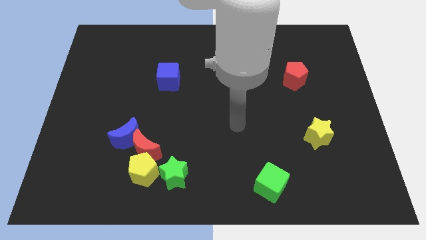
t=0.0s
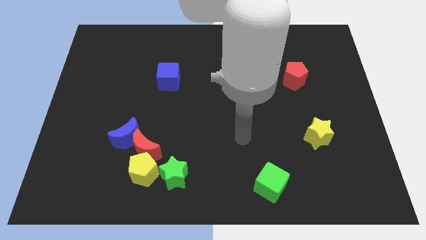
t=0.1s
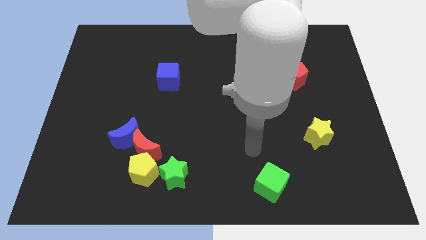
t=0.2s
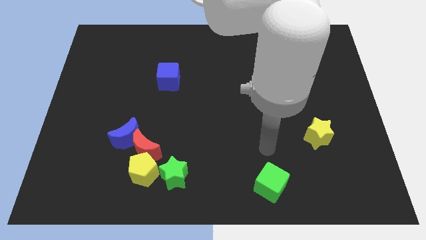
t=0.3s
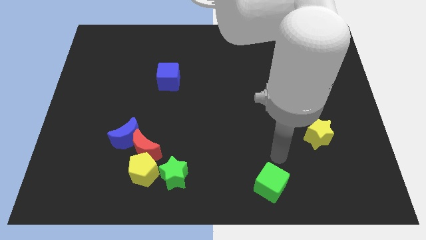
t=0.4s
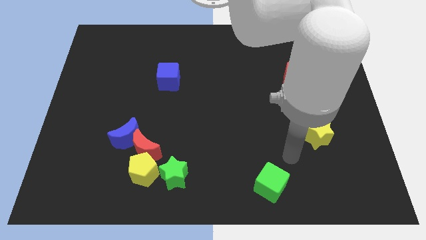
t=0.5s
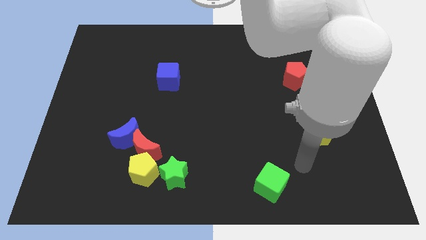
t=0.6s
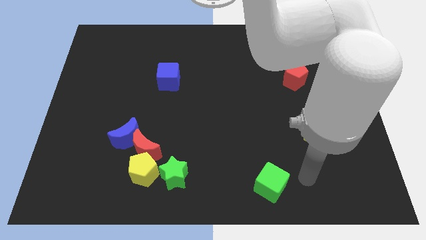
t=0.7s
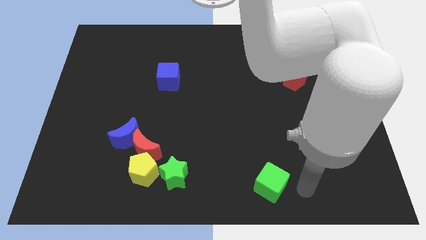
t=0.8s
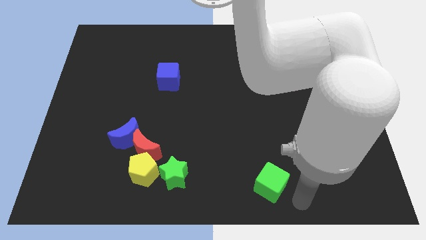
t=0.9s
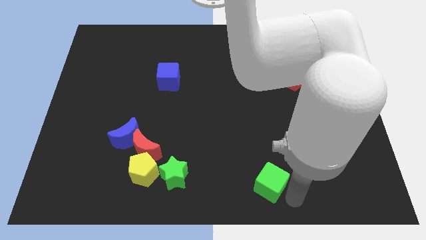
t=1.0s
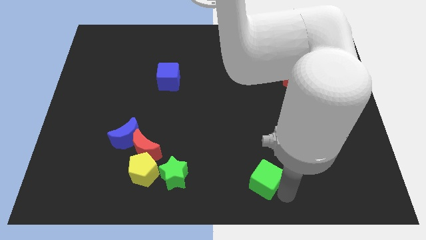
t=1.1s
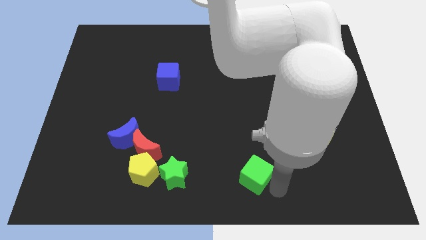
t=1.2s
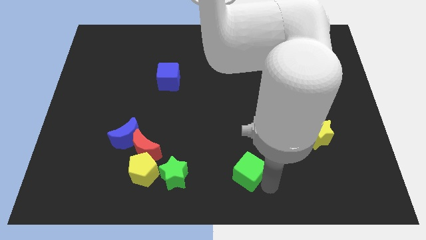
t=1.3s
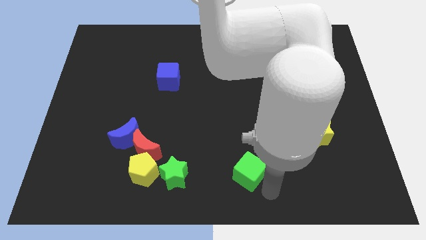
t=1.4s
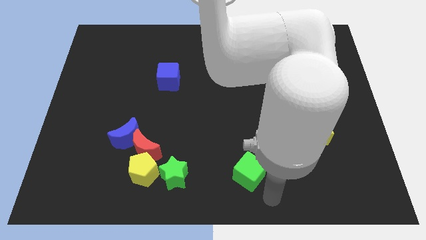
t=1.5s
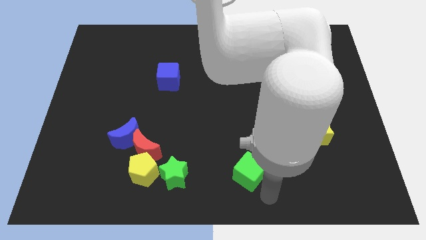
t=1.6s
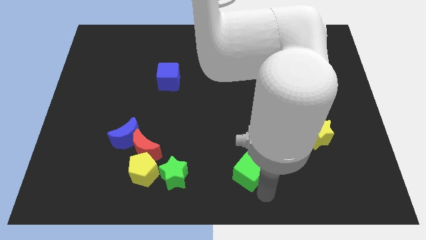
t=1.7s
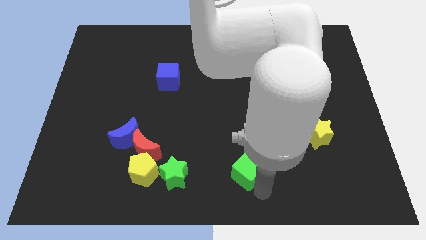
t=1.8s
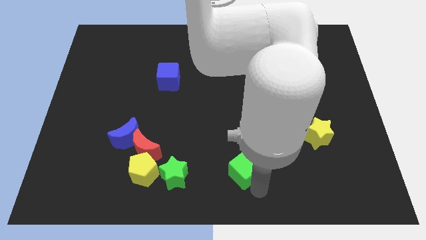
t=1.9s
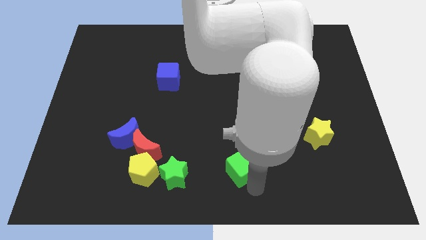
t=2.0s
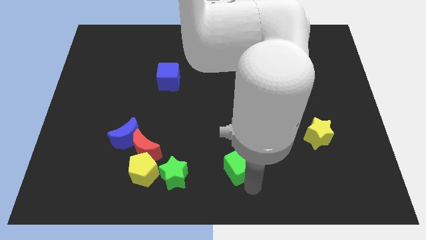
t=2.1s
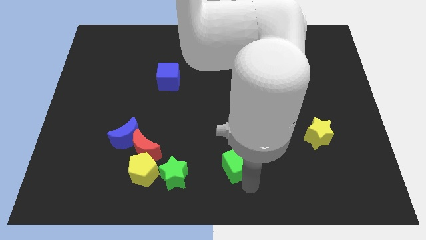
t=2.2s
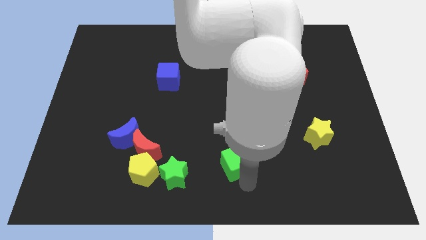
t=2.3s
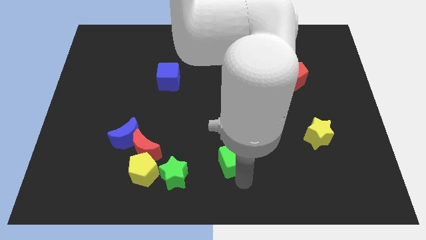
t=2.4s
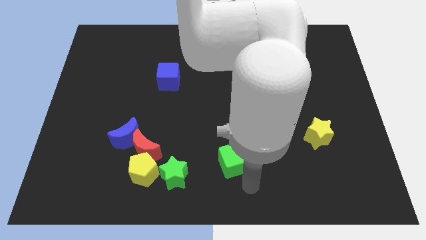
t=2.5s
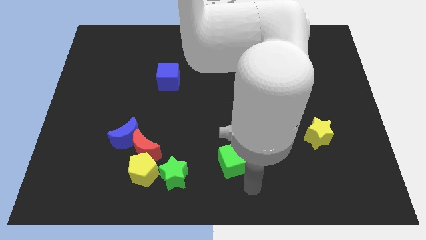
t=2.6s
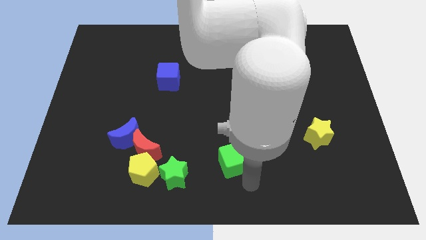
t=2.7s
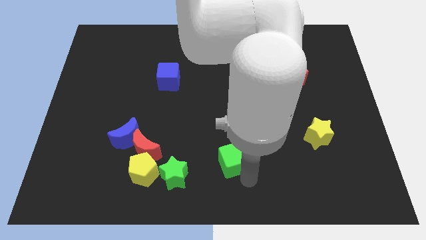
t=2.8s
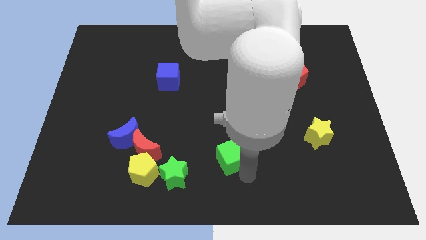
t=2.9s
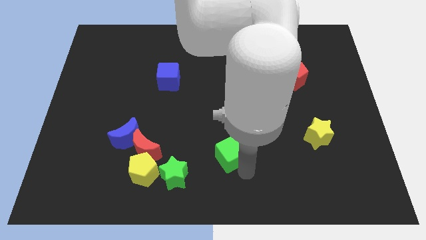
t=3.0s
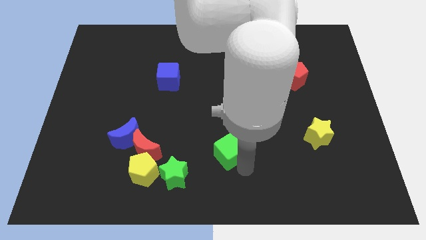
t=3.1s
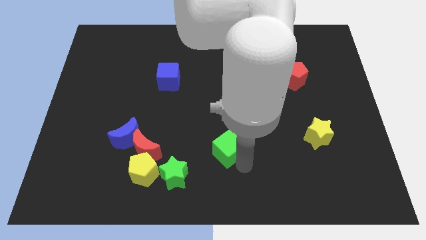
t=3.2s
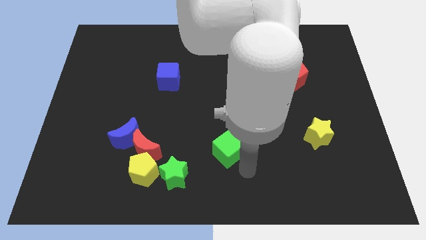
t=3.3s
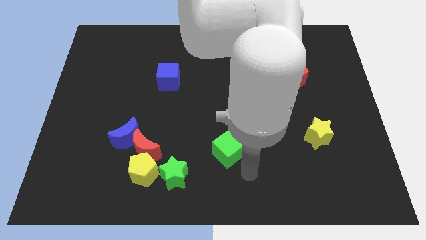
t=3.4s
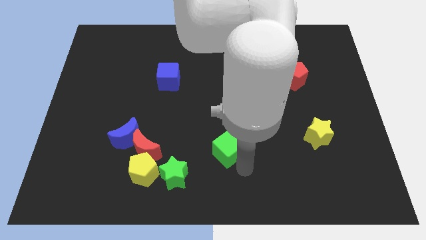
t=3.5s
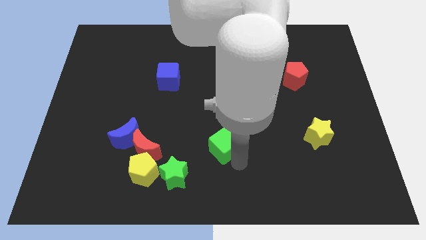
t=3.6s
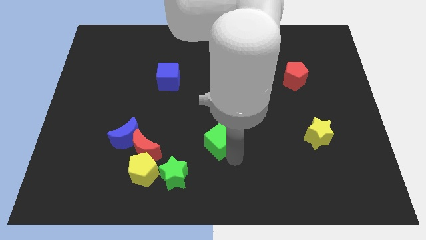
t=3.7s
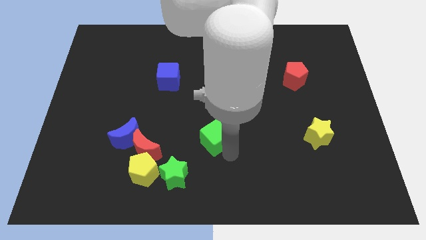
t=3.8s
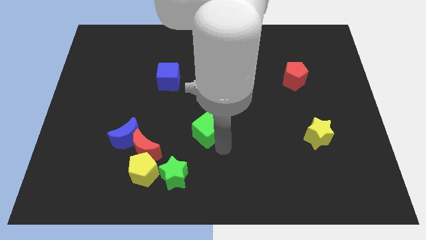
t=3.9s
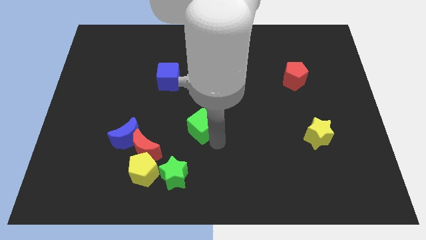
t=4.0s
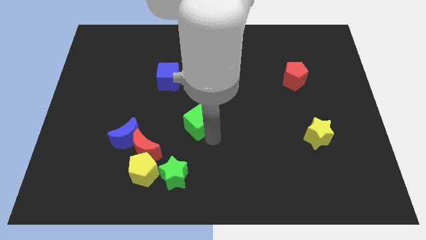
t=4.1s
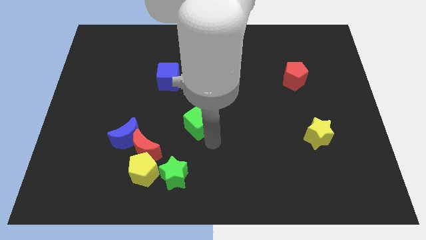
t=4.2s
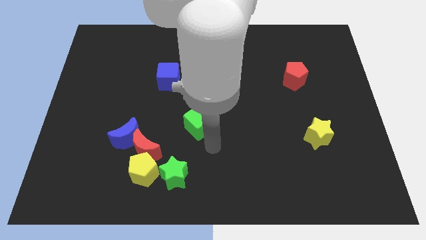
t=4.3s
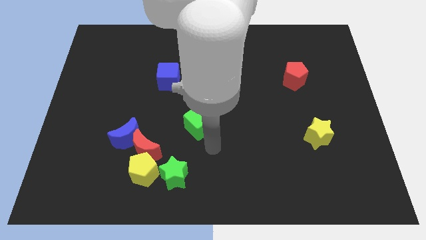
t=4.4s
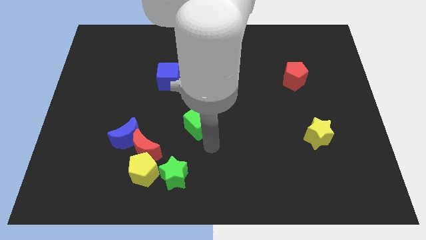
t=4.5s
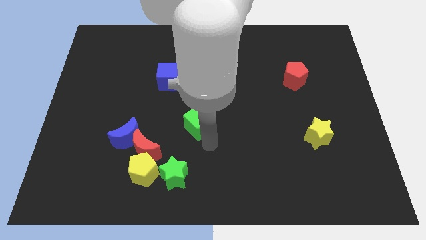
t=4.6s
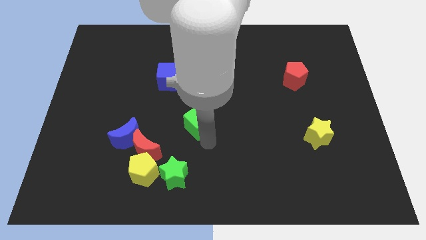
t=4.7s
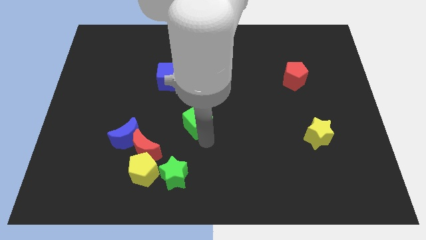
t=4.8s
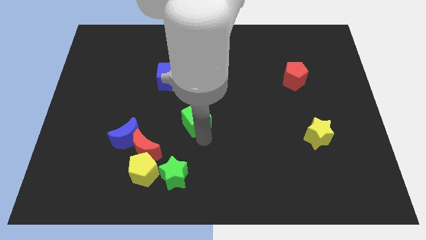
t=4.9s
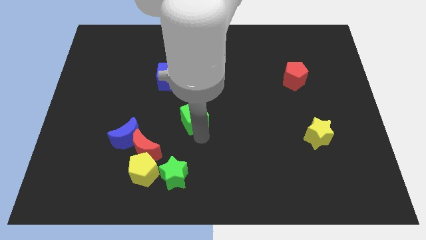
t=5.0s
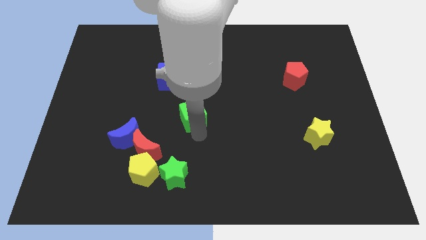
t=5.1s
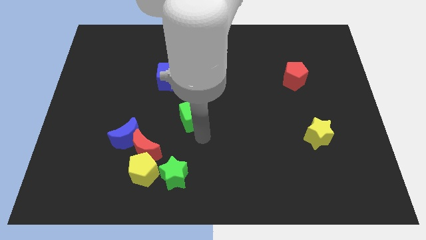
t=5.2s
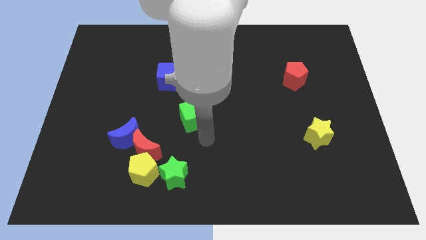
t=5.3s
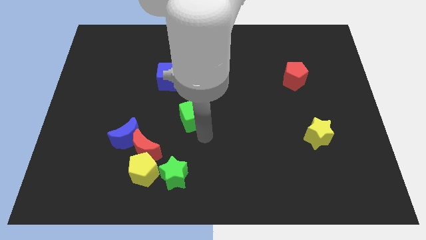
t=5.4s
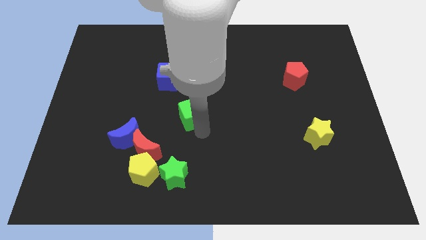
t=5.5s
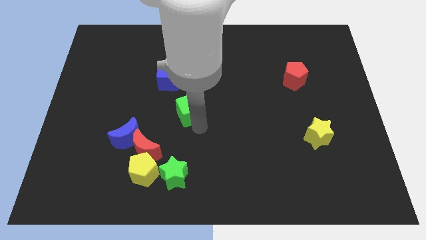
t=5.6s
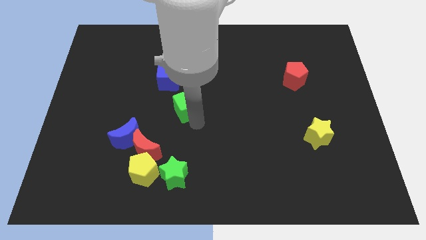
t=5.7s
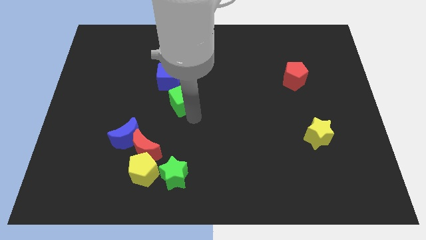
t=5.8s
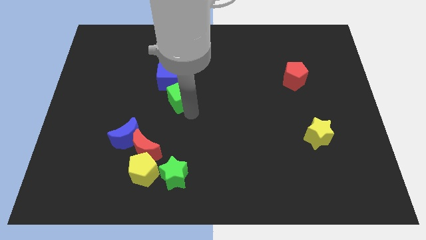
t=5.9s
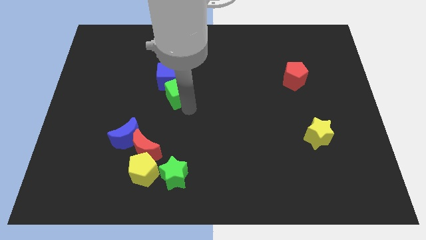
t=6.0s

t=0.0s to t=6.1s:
put the green cube to the blue cube
